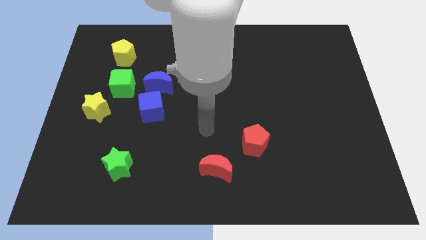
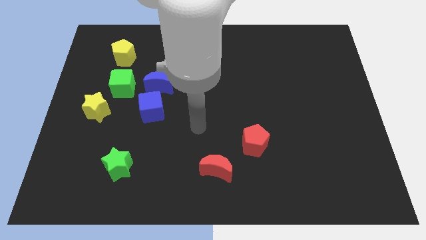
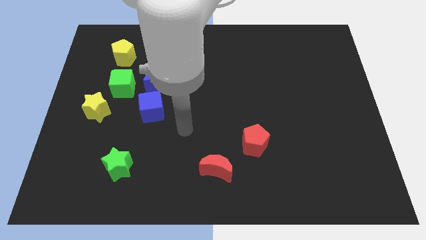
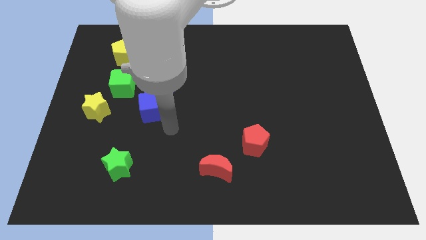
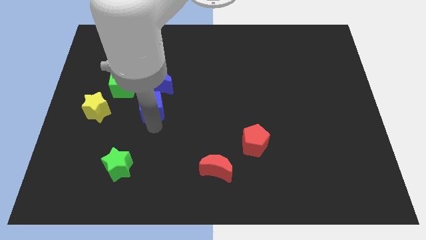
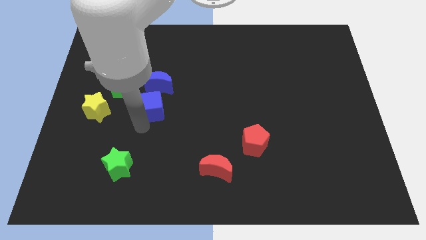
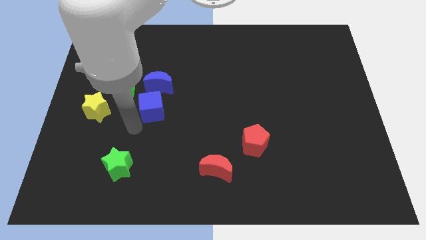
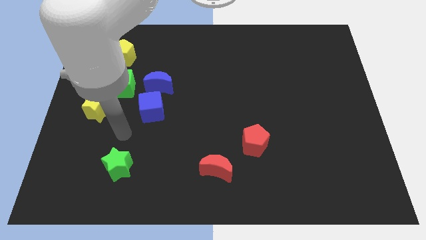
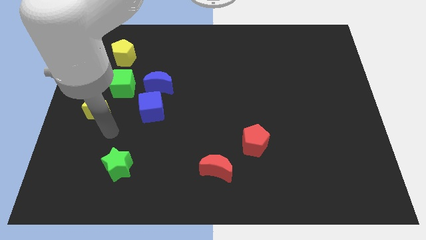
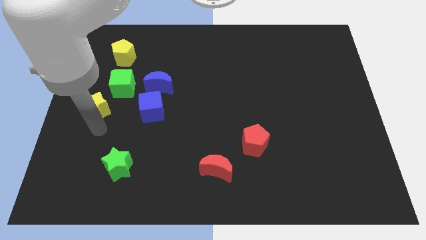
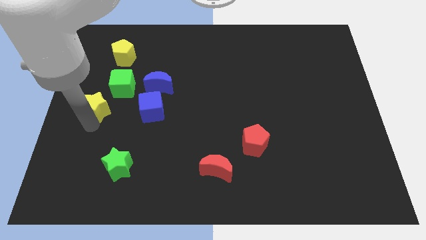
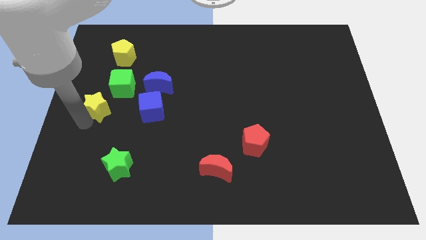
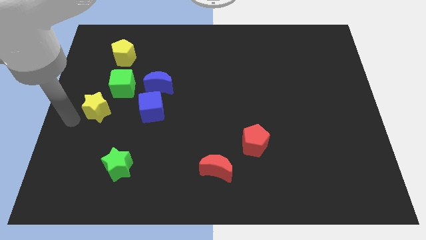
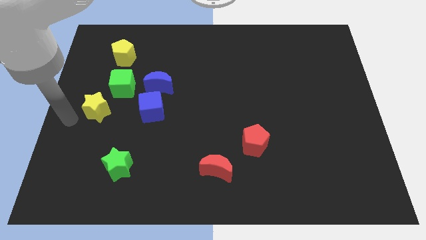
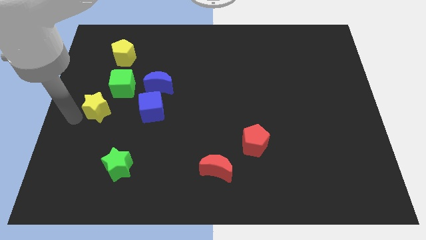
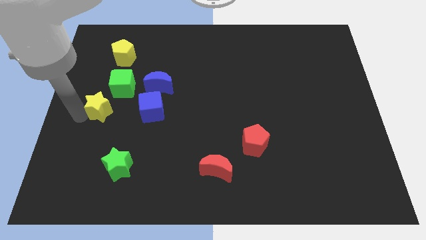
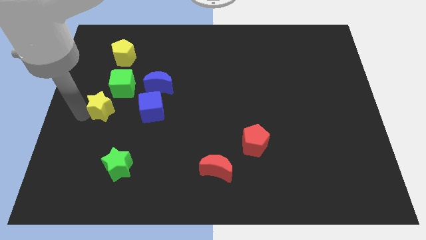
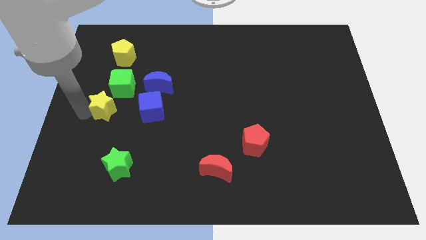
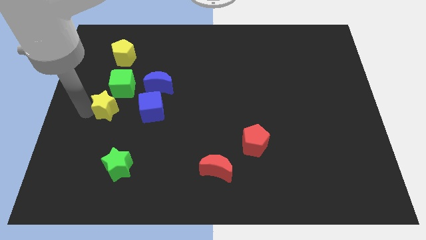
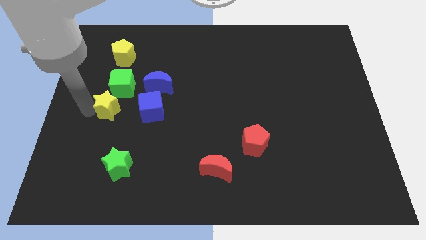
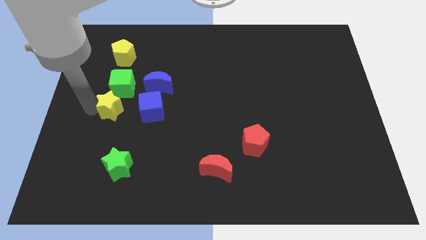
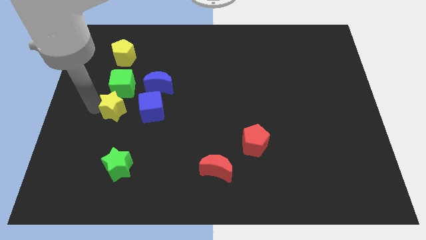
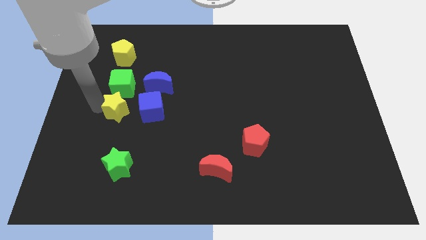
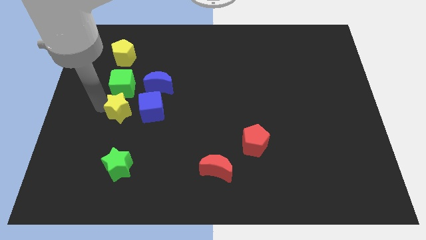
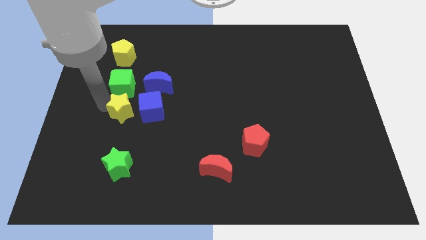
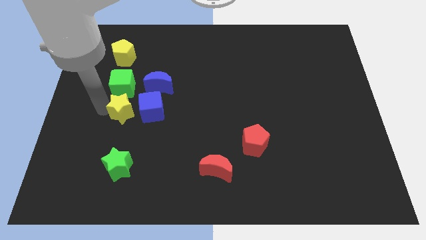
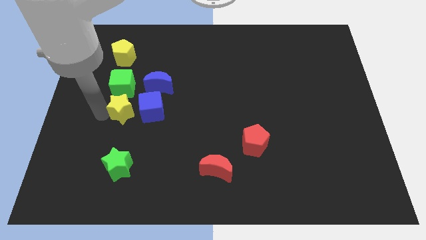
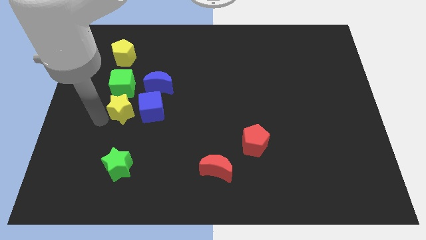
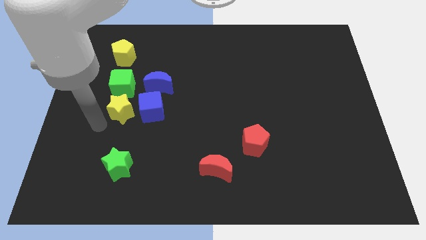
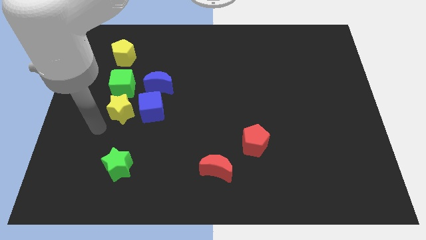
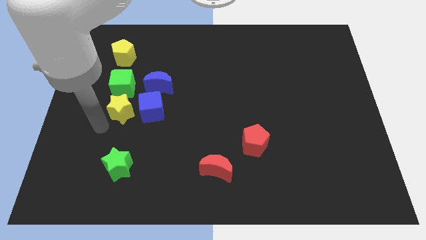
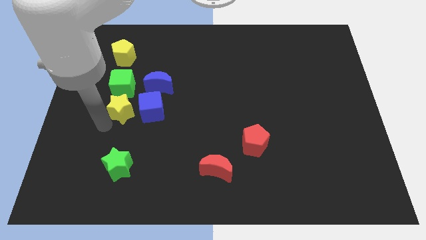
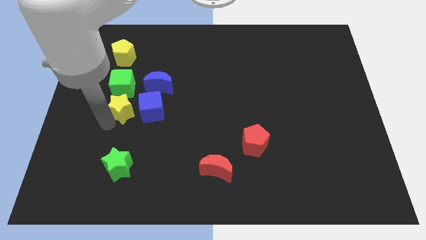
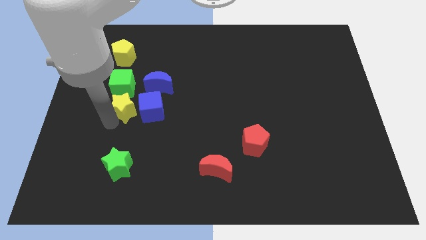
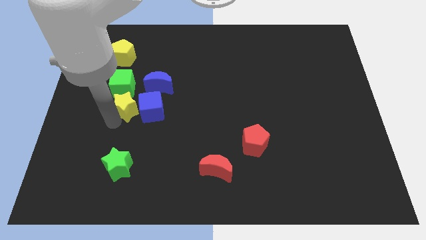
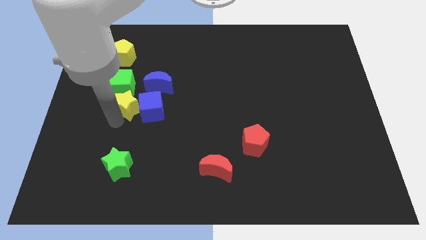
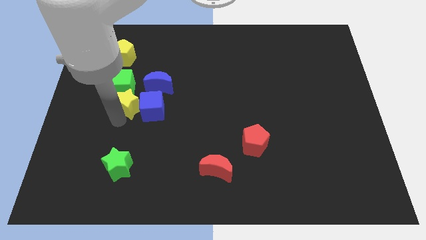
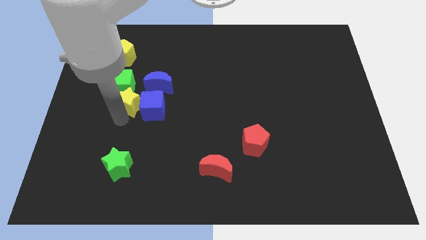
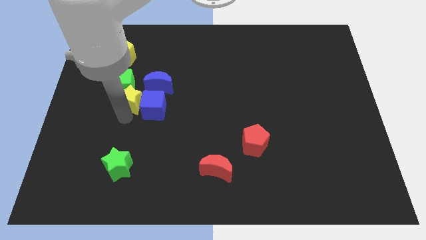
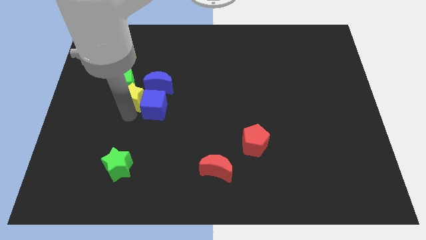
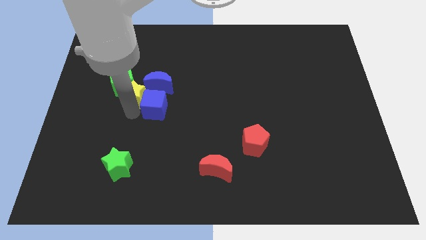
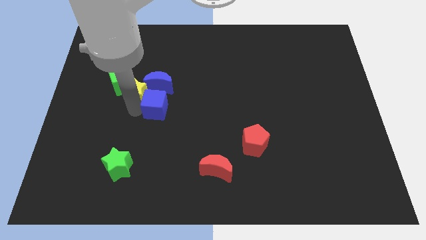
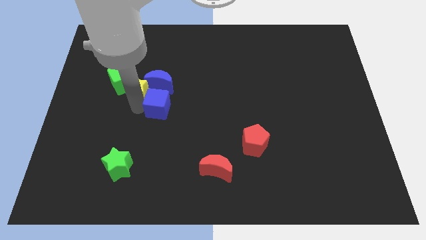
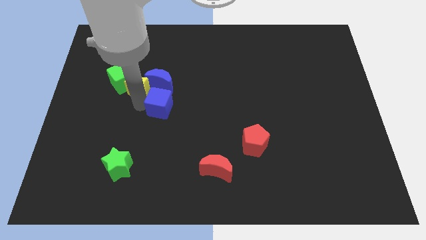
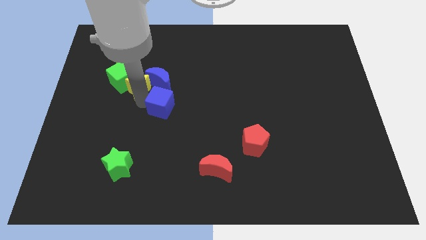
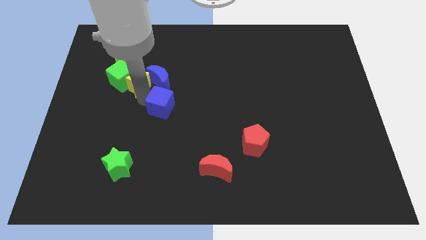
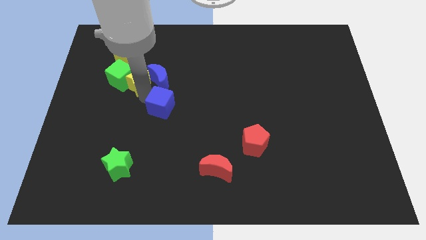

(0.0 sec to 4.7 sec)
move the yellow star diagonally up and to the left of the blue moon

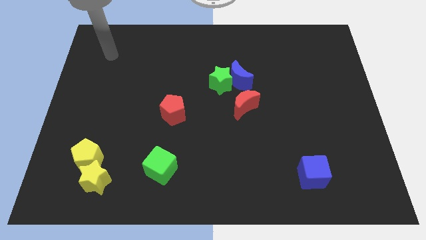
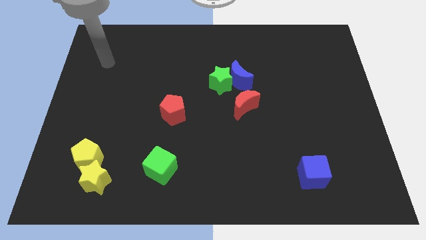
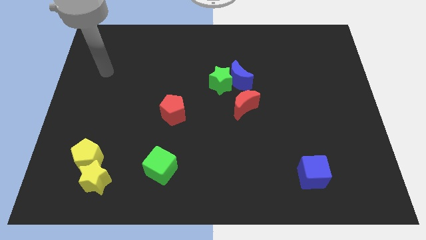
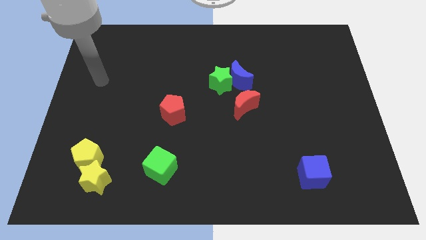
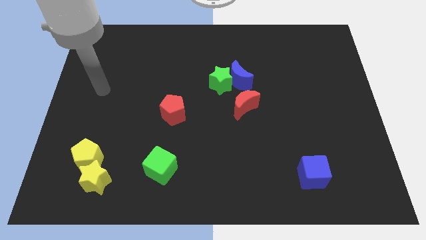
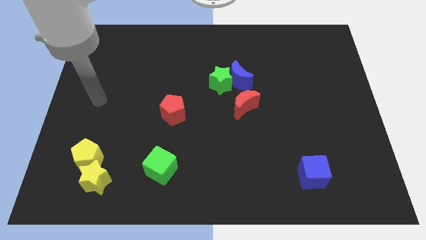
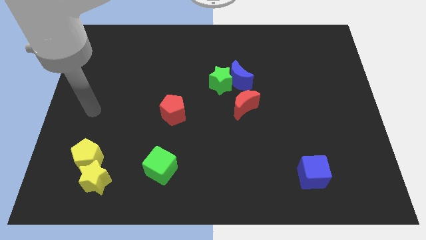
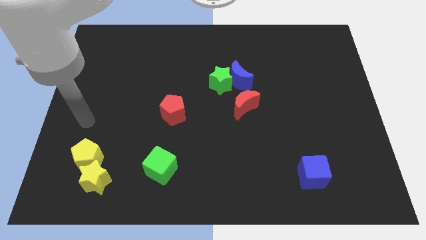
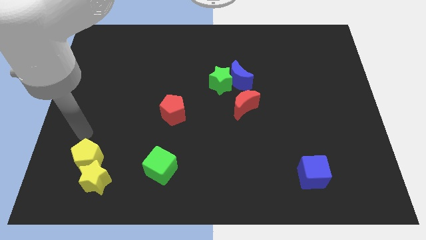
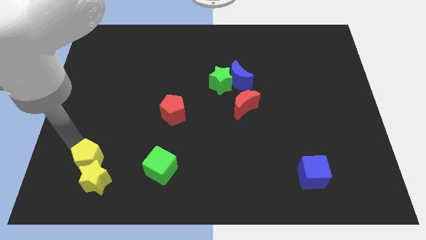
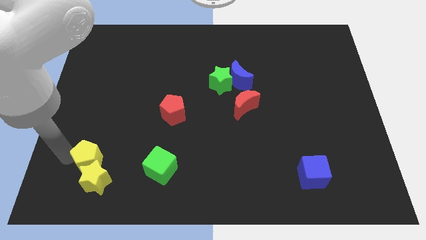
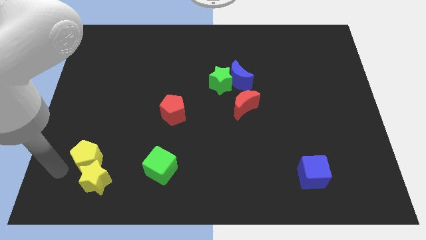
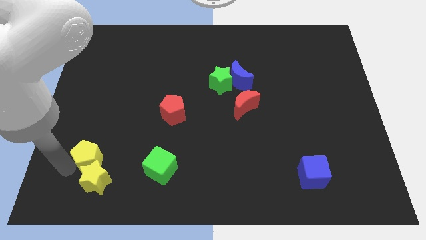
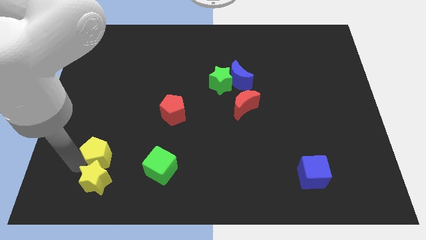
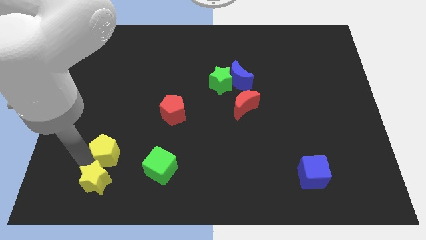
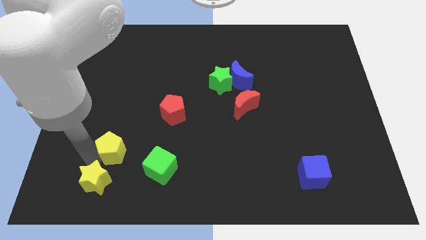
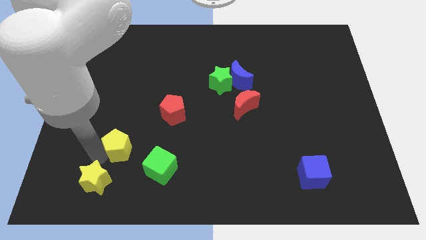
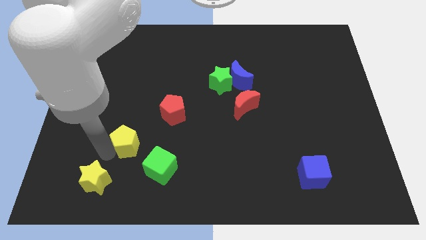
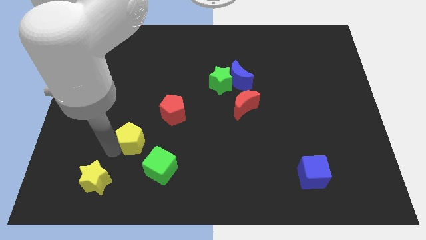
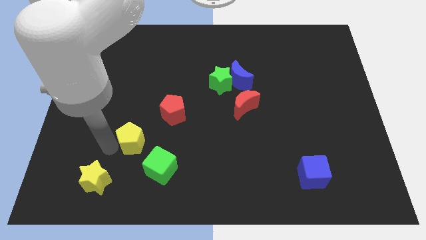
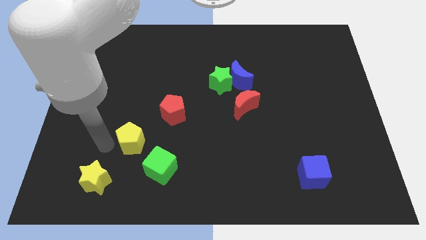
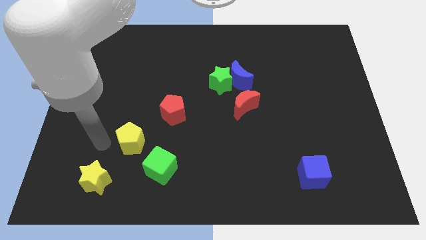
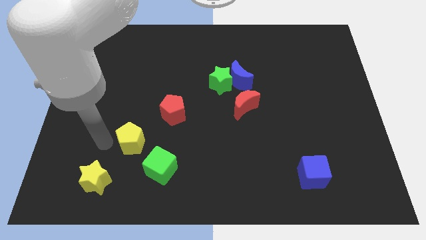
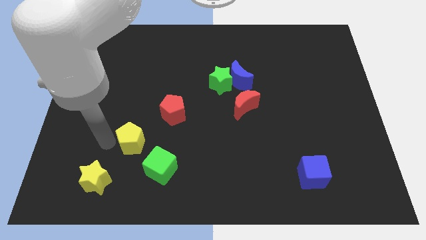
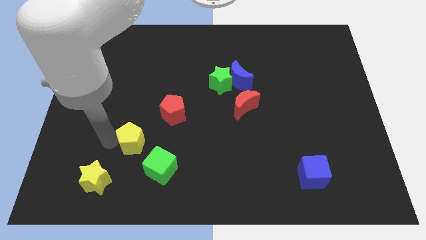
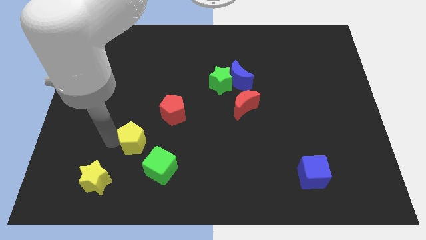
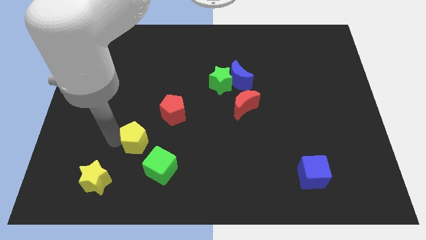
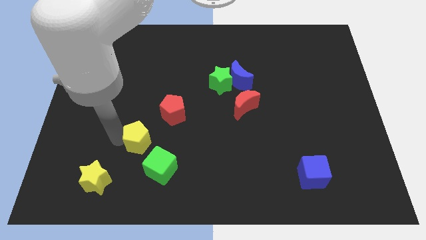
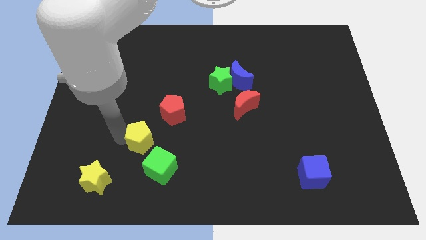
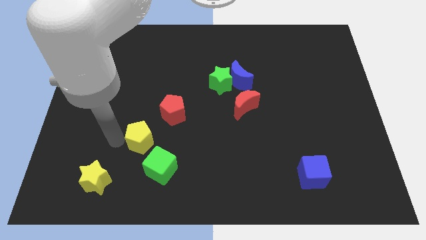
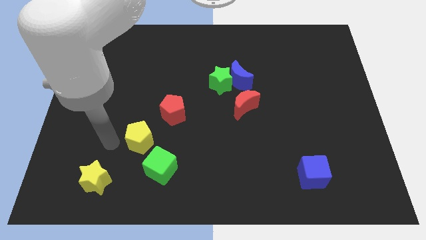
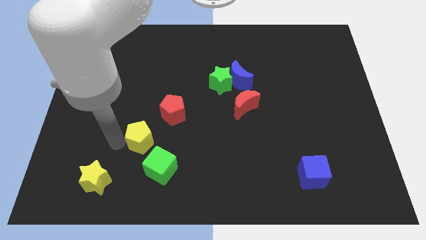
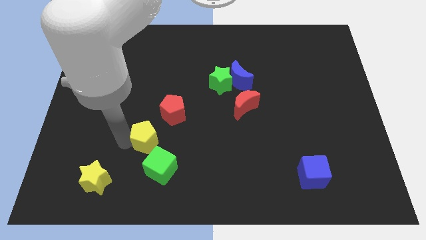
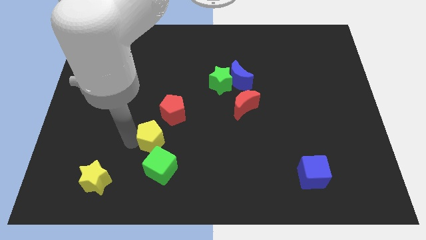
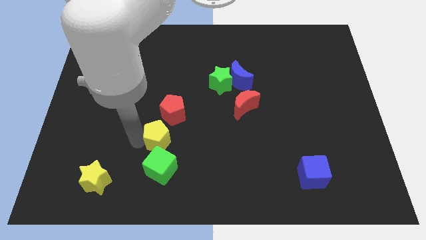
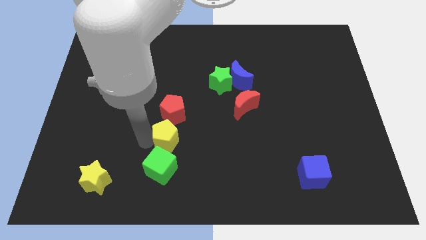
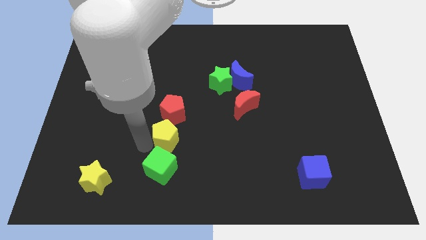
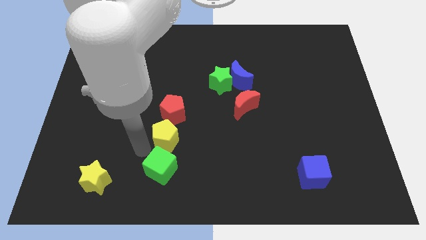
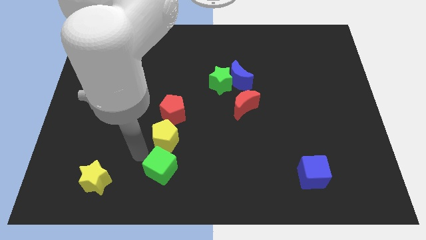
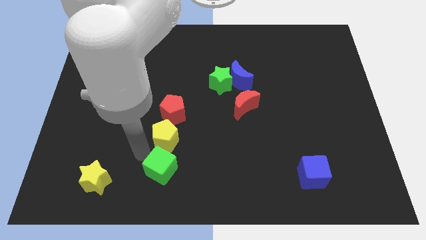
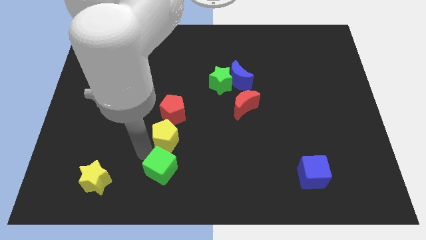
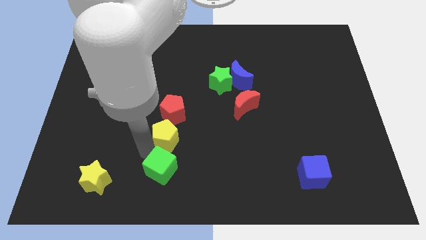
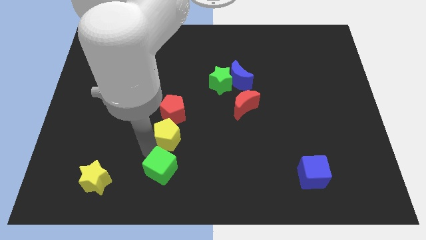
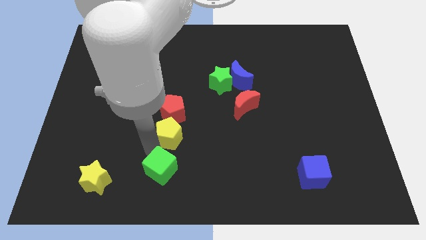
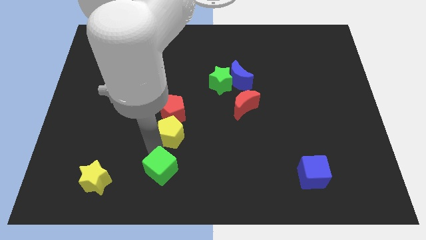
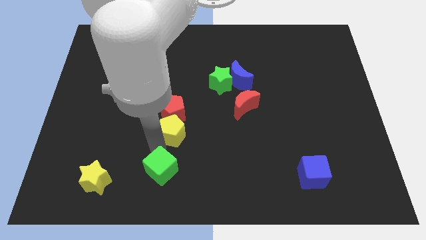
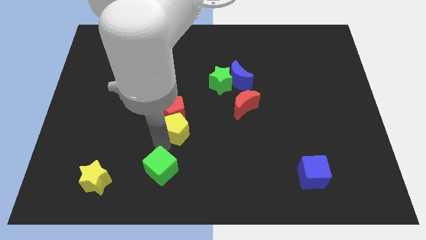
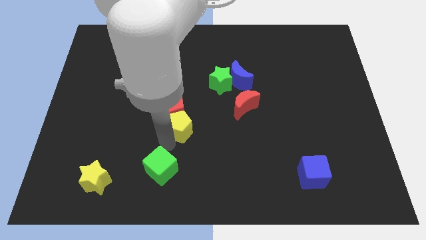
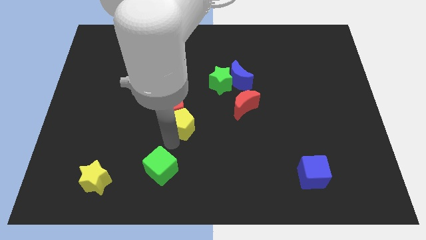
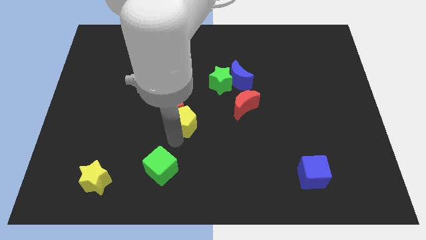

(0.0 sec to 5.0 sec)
push the yellow pentagon to the right side of the red pentagon
